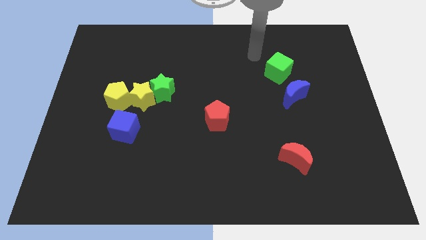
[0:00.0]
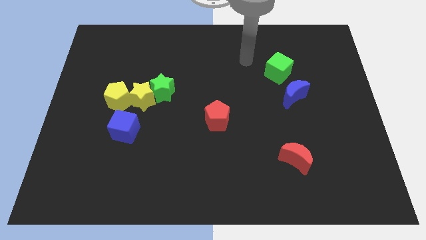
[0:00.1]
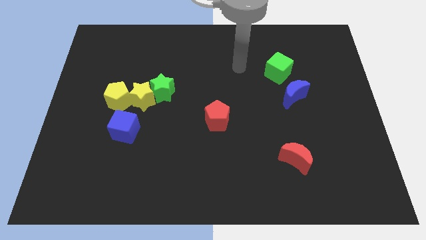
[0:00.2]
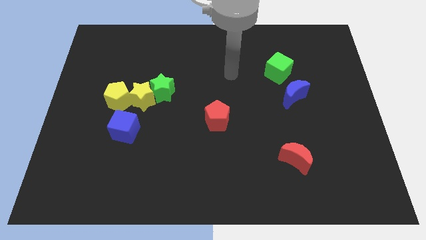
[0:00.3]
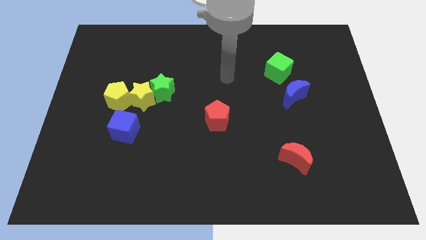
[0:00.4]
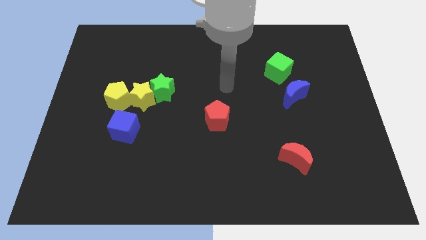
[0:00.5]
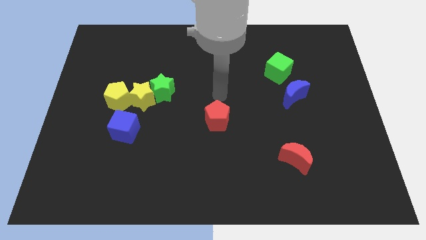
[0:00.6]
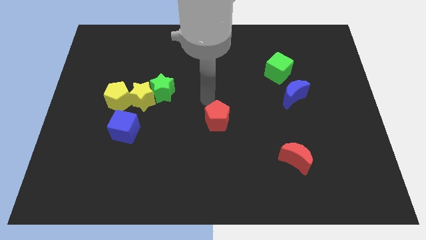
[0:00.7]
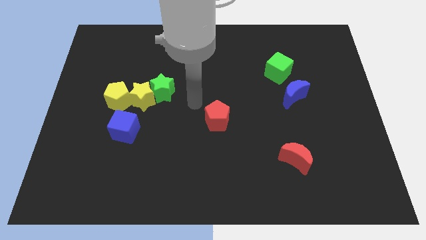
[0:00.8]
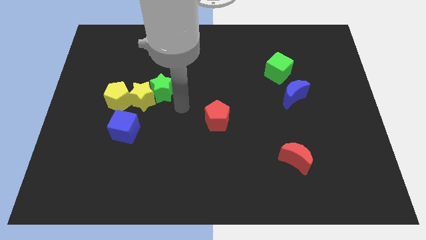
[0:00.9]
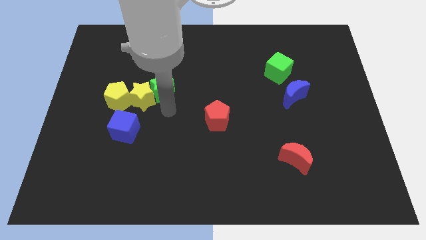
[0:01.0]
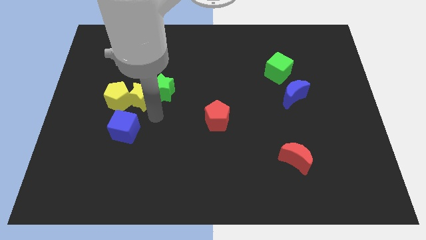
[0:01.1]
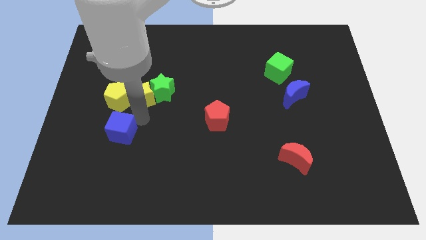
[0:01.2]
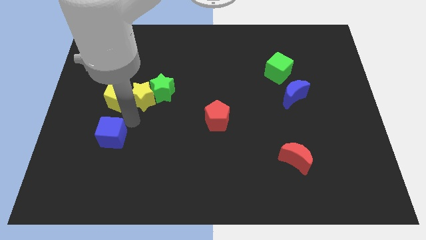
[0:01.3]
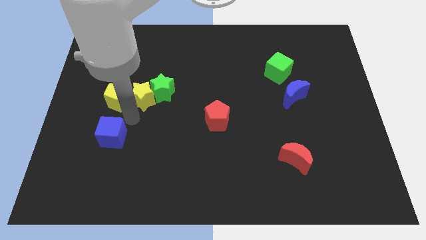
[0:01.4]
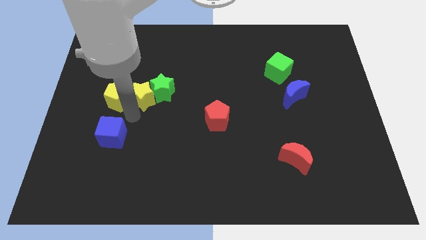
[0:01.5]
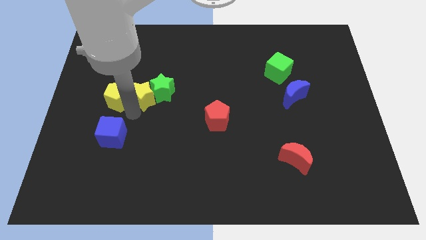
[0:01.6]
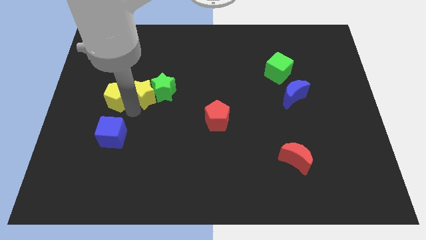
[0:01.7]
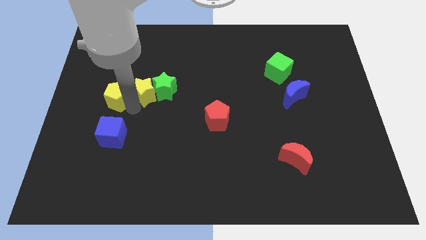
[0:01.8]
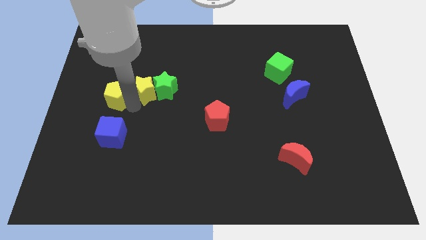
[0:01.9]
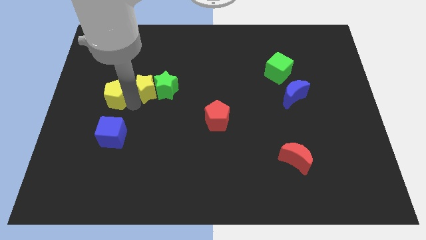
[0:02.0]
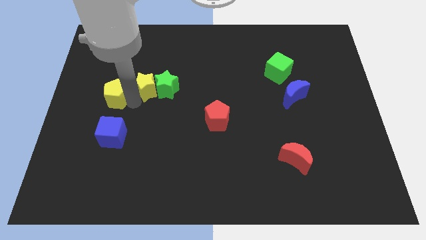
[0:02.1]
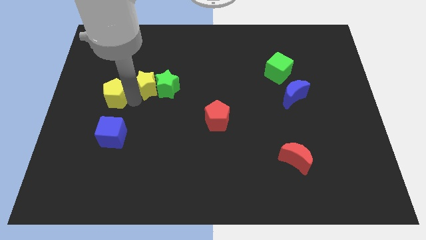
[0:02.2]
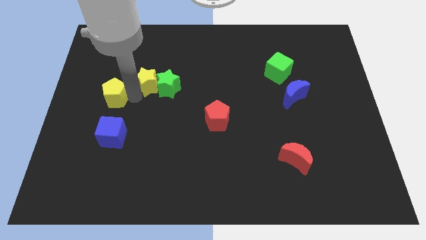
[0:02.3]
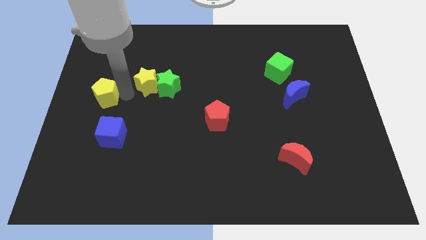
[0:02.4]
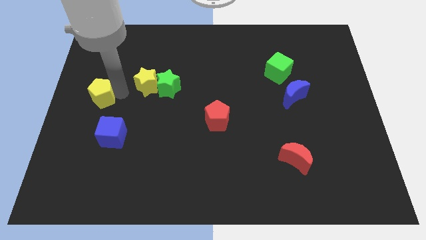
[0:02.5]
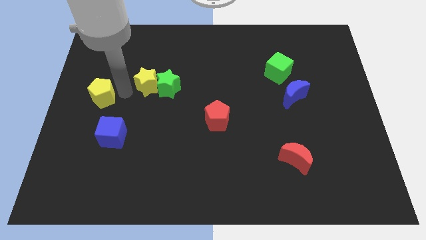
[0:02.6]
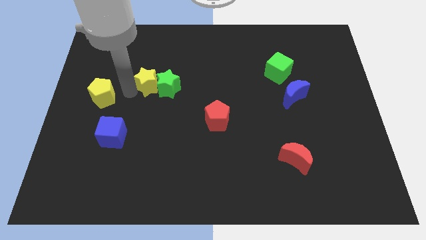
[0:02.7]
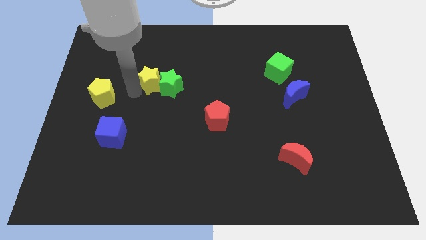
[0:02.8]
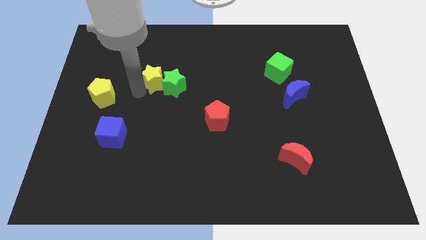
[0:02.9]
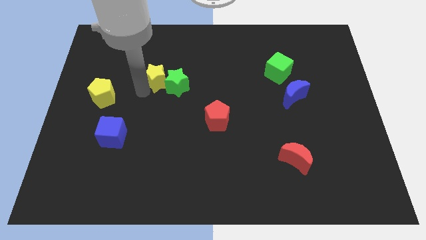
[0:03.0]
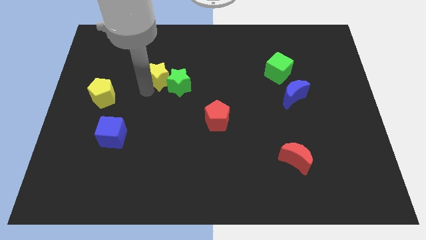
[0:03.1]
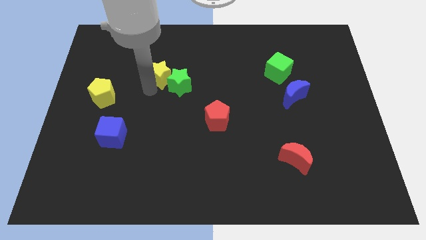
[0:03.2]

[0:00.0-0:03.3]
slide the yellow star somewhat diagonally up and to the right

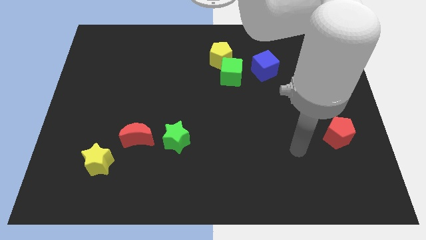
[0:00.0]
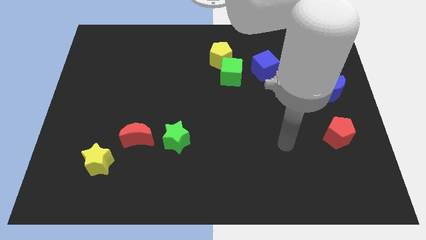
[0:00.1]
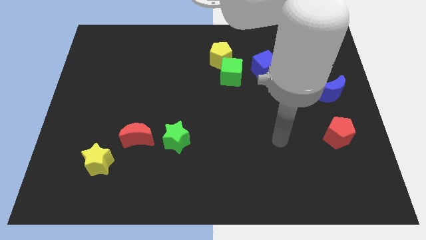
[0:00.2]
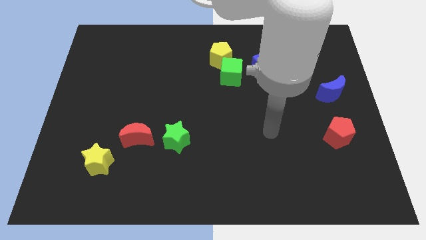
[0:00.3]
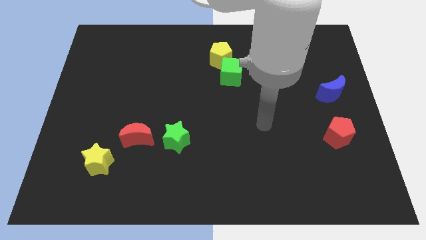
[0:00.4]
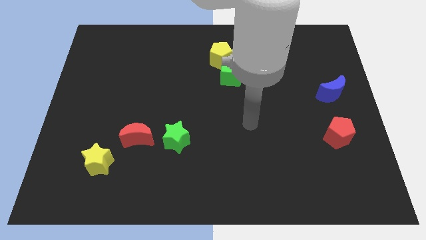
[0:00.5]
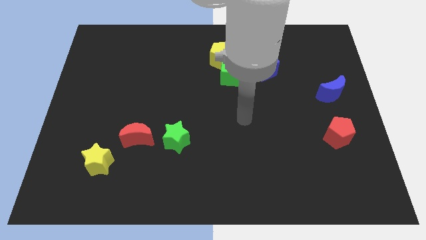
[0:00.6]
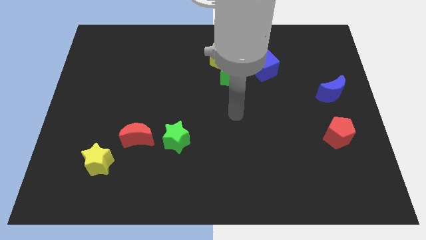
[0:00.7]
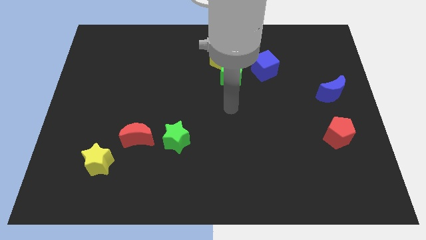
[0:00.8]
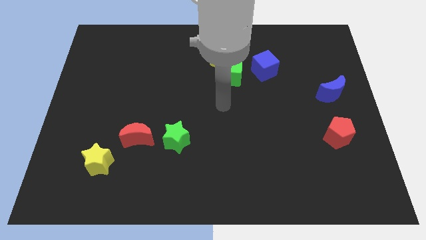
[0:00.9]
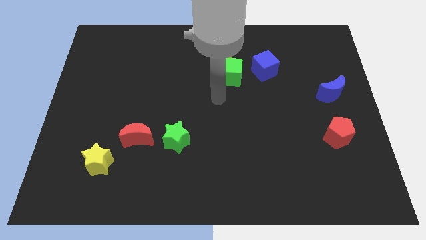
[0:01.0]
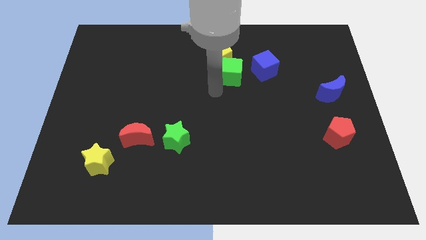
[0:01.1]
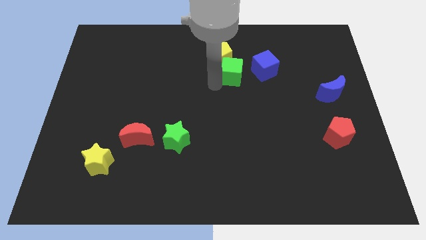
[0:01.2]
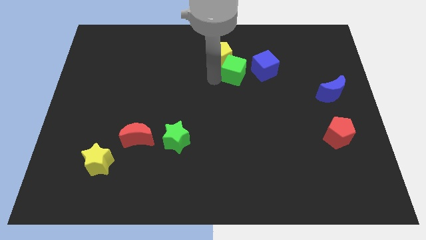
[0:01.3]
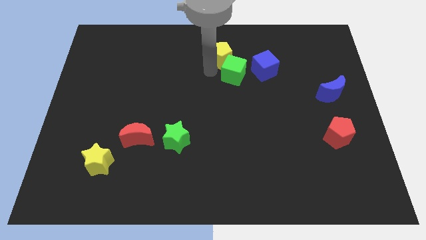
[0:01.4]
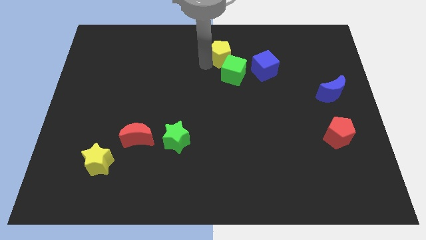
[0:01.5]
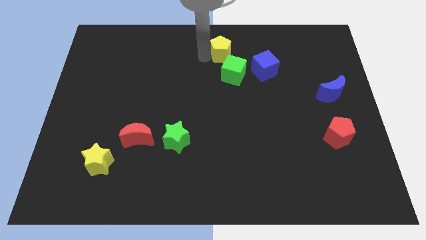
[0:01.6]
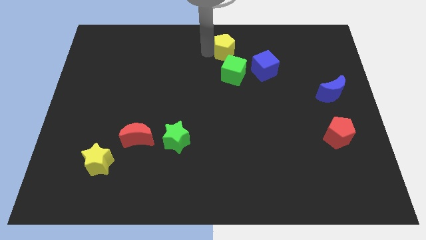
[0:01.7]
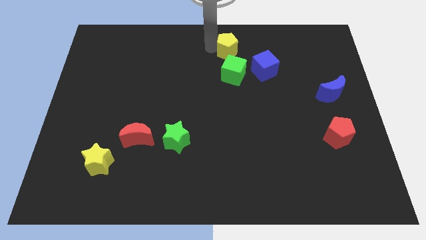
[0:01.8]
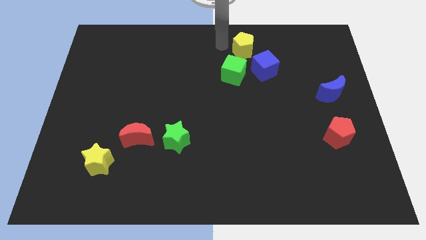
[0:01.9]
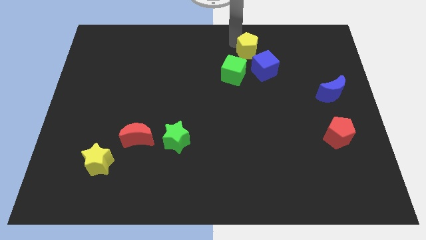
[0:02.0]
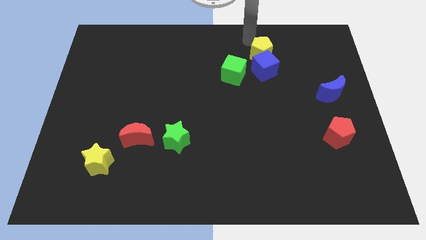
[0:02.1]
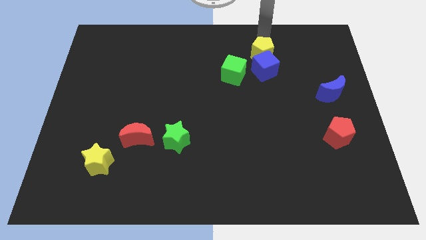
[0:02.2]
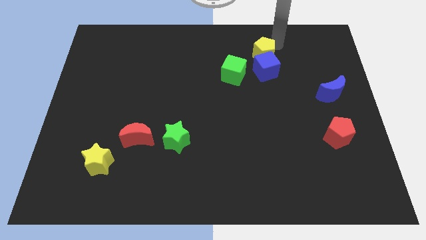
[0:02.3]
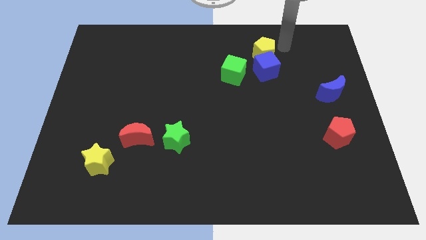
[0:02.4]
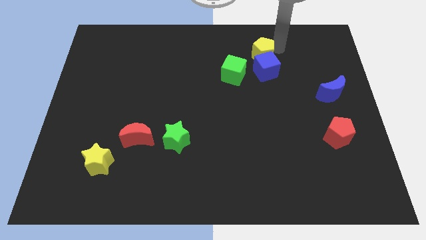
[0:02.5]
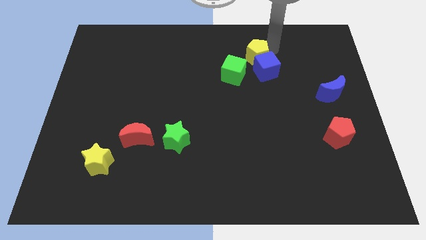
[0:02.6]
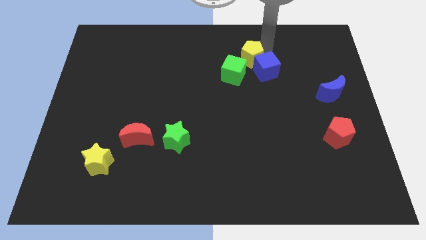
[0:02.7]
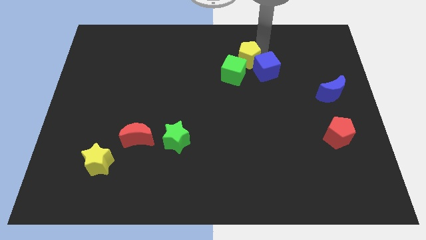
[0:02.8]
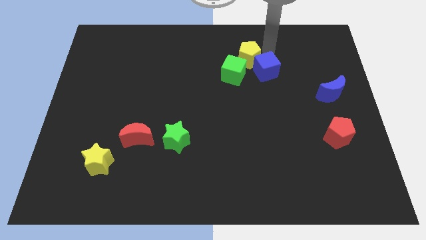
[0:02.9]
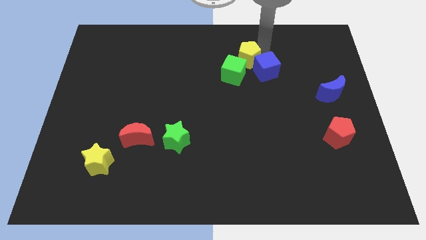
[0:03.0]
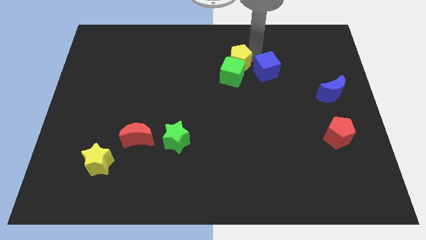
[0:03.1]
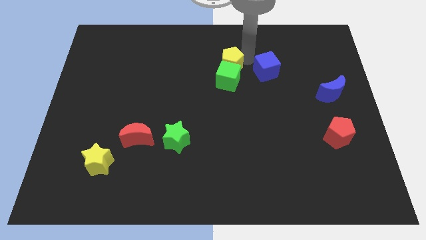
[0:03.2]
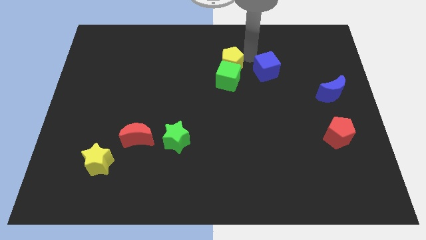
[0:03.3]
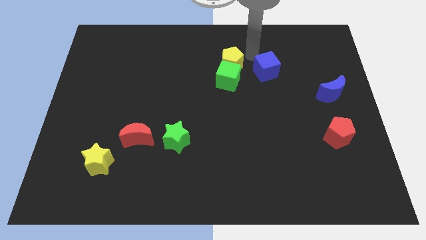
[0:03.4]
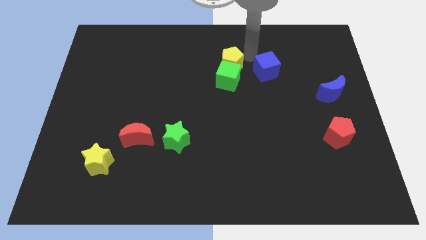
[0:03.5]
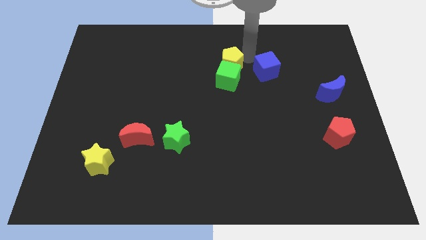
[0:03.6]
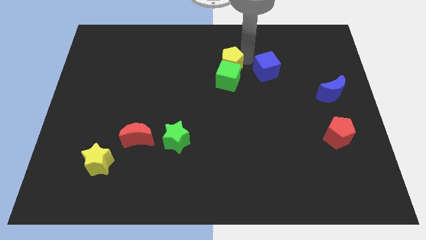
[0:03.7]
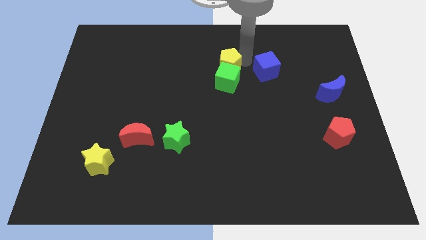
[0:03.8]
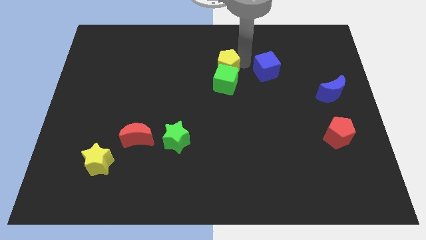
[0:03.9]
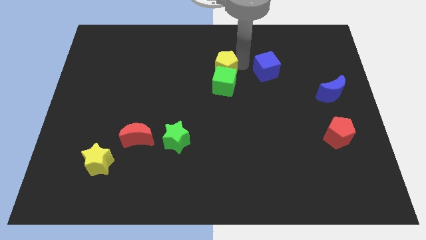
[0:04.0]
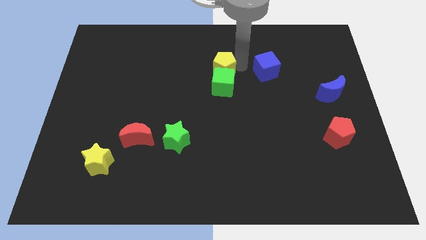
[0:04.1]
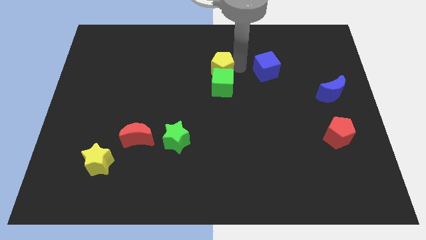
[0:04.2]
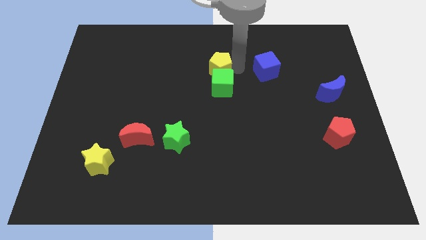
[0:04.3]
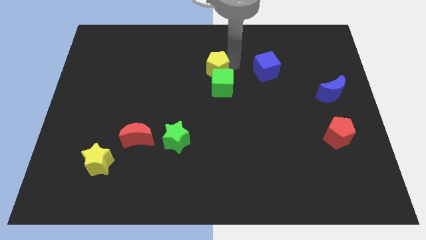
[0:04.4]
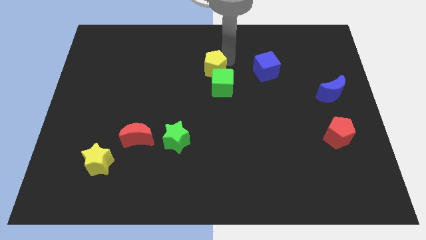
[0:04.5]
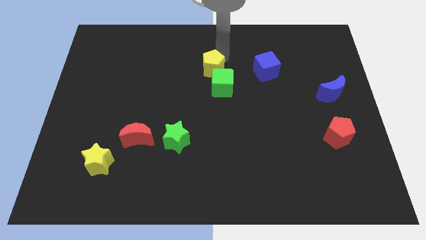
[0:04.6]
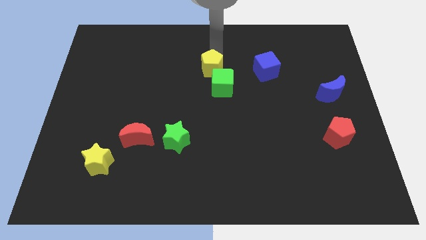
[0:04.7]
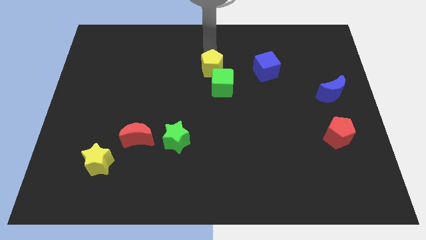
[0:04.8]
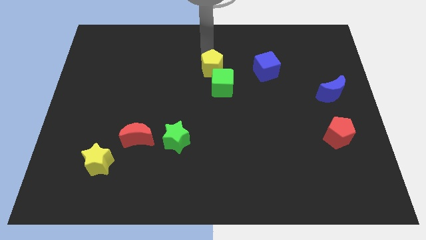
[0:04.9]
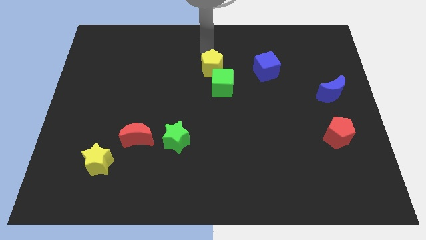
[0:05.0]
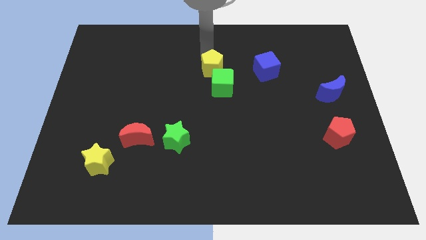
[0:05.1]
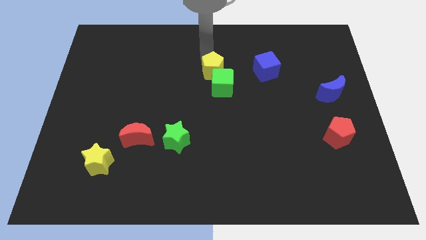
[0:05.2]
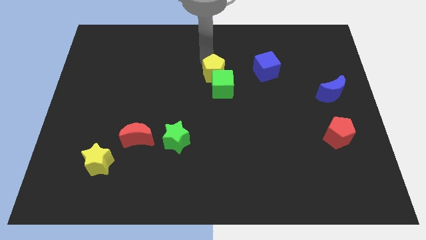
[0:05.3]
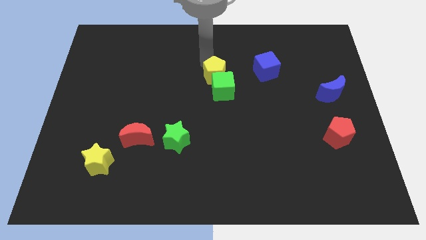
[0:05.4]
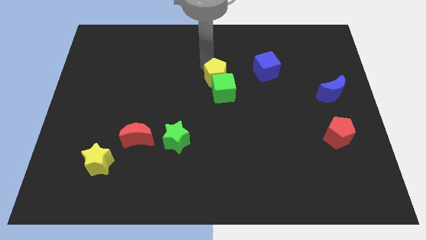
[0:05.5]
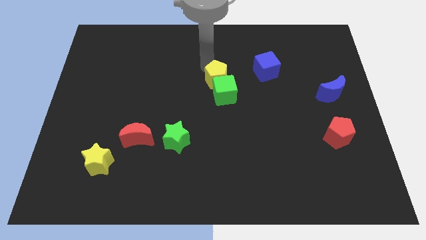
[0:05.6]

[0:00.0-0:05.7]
slightly slide the yellow pentagon downwards
